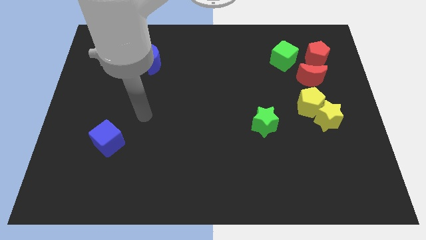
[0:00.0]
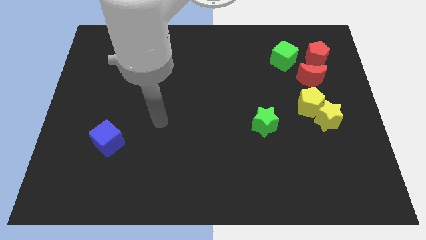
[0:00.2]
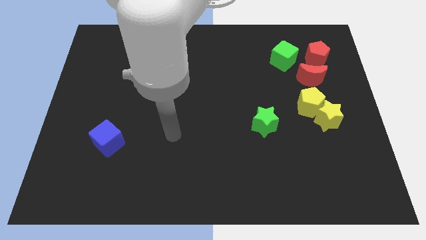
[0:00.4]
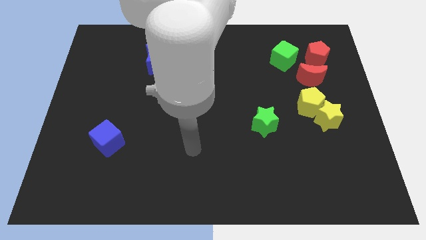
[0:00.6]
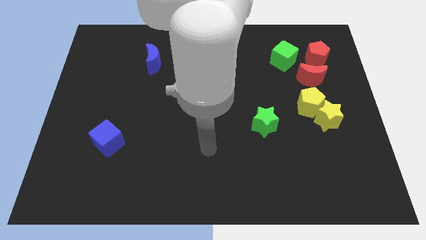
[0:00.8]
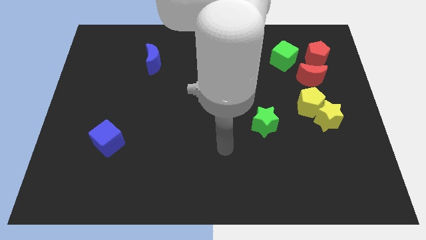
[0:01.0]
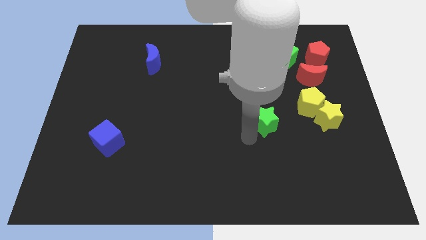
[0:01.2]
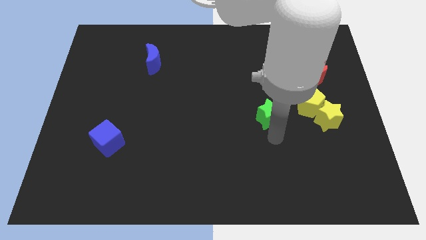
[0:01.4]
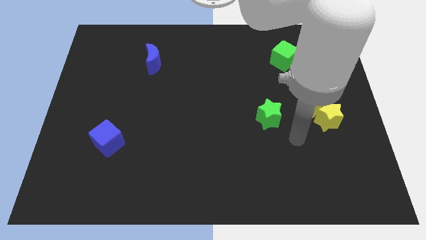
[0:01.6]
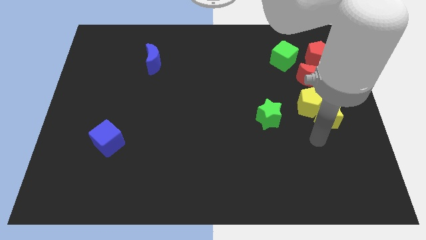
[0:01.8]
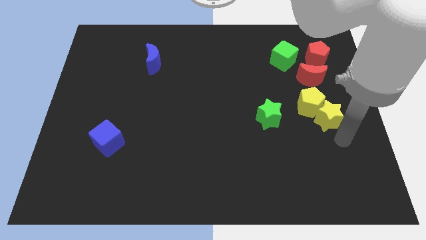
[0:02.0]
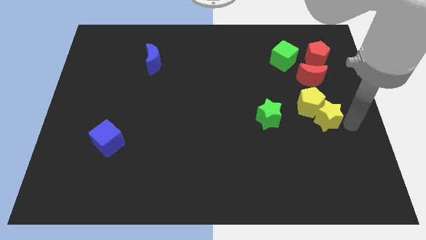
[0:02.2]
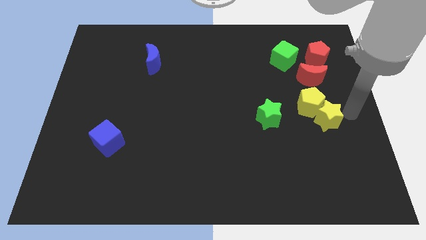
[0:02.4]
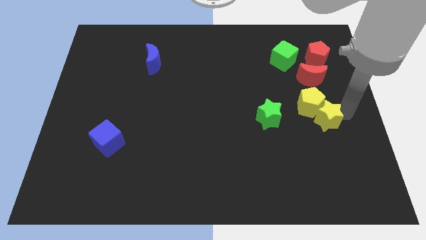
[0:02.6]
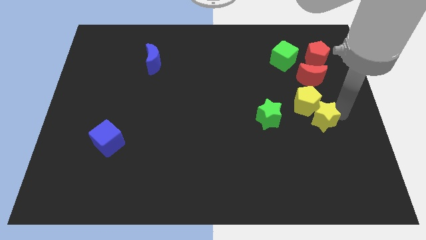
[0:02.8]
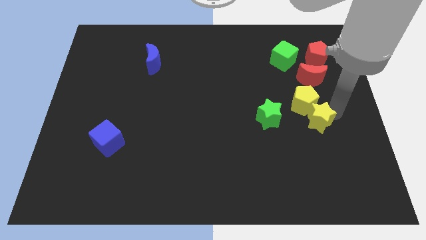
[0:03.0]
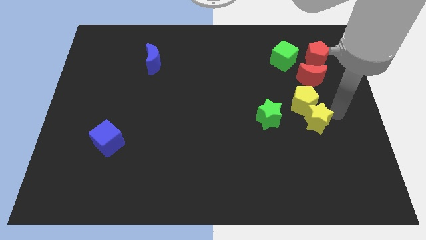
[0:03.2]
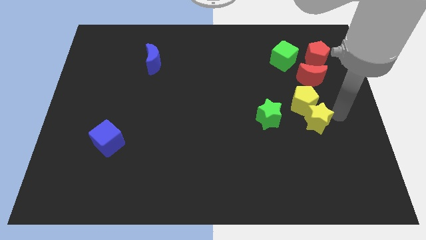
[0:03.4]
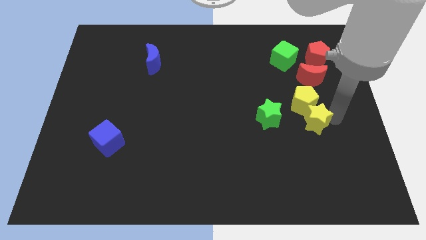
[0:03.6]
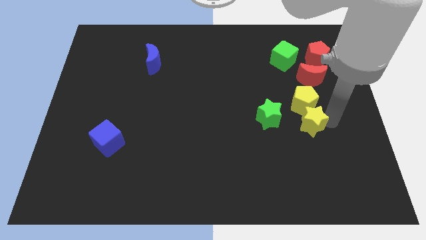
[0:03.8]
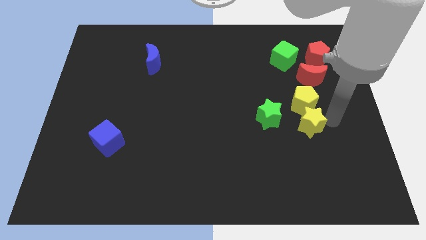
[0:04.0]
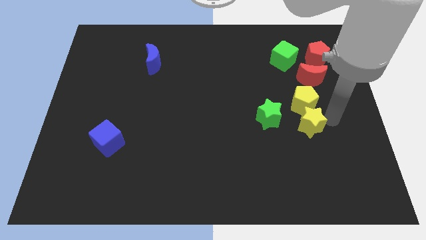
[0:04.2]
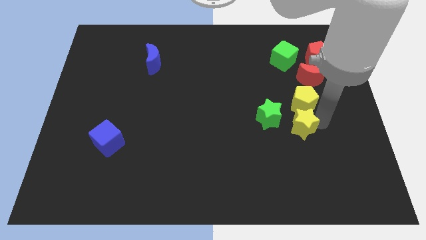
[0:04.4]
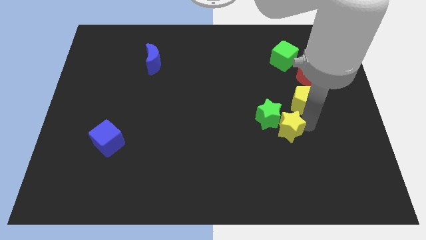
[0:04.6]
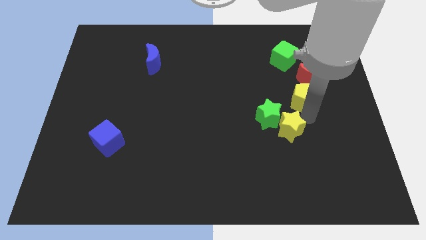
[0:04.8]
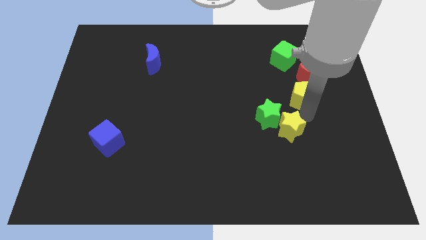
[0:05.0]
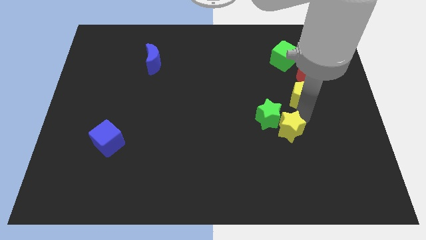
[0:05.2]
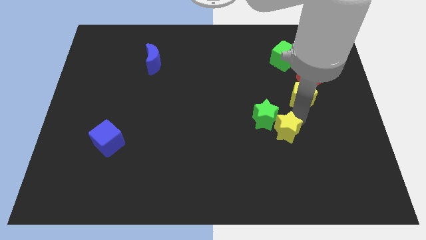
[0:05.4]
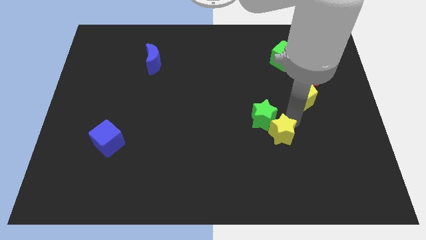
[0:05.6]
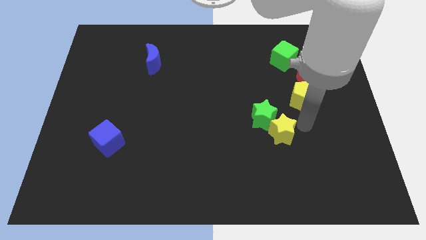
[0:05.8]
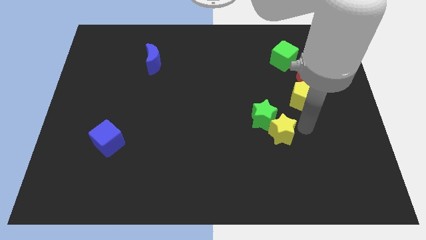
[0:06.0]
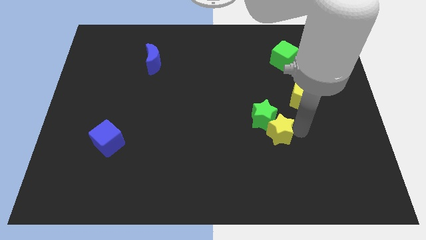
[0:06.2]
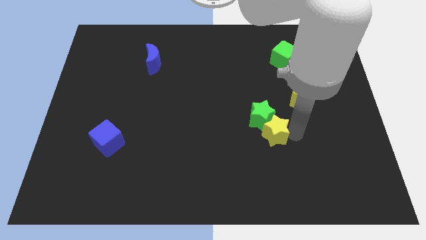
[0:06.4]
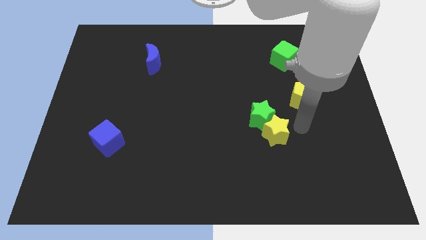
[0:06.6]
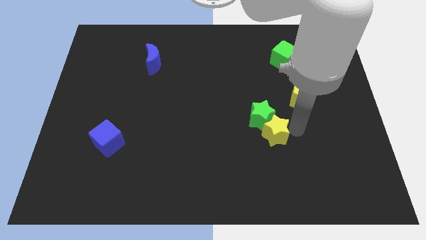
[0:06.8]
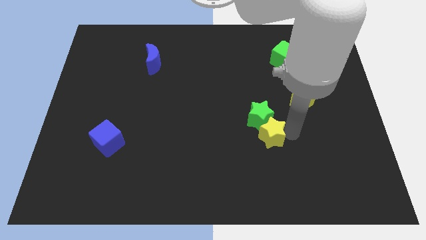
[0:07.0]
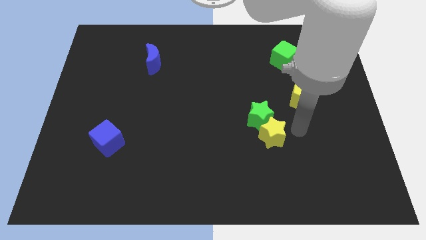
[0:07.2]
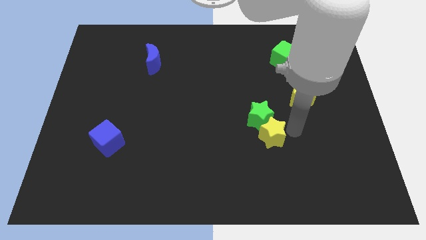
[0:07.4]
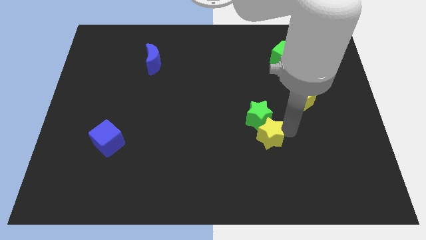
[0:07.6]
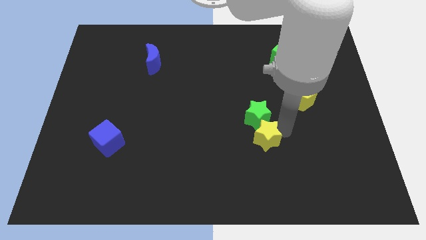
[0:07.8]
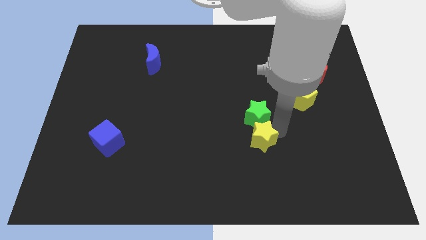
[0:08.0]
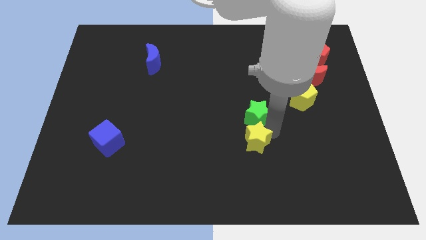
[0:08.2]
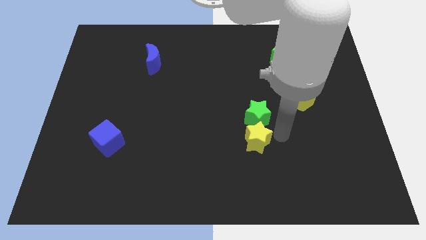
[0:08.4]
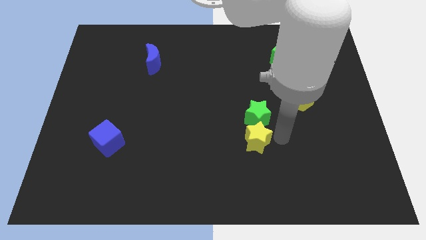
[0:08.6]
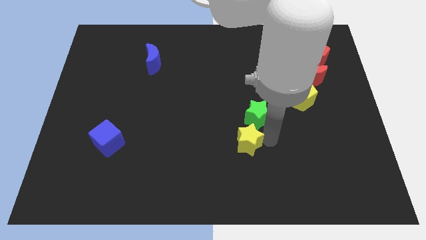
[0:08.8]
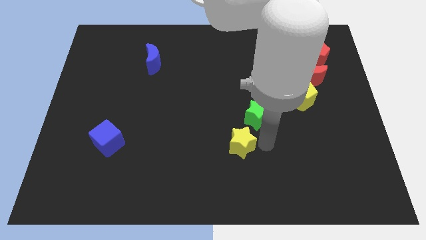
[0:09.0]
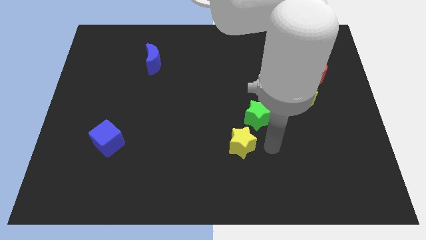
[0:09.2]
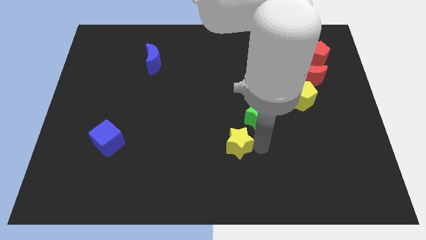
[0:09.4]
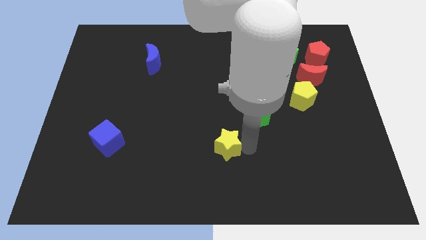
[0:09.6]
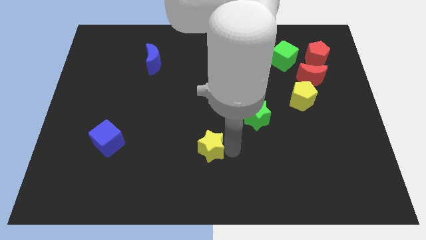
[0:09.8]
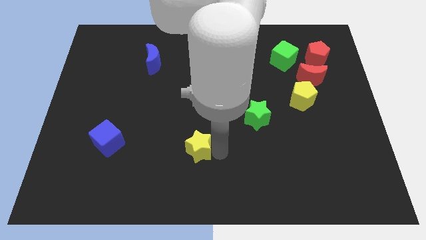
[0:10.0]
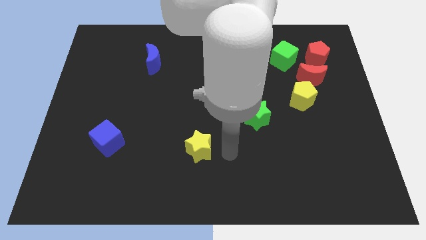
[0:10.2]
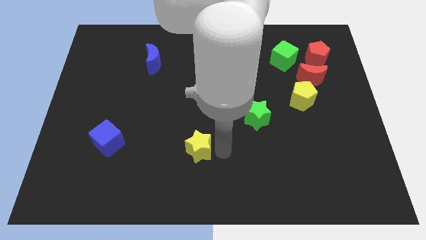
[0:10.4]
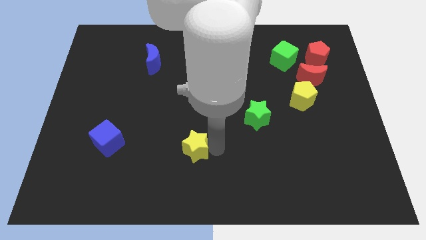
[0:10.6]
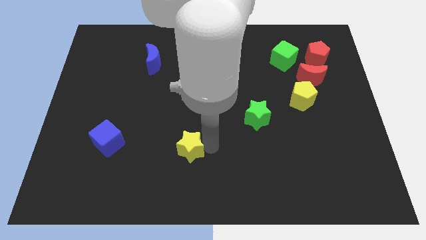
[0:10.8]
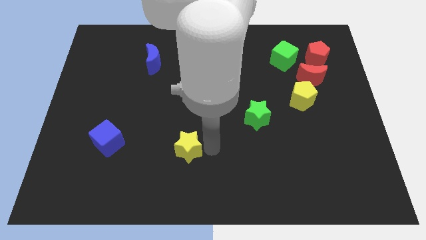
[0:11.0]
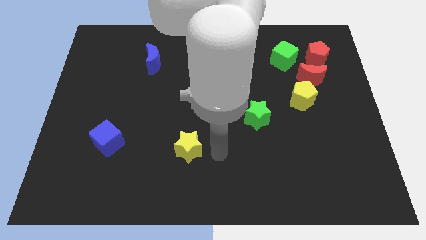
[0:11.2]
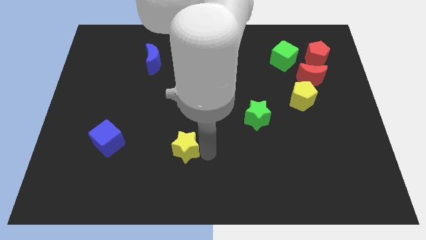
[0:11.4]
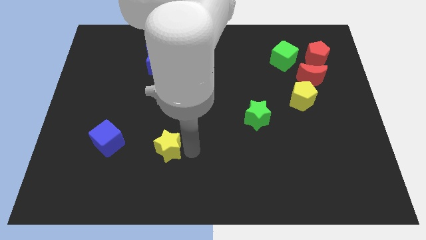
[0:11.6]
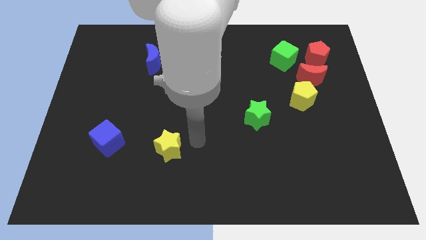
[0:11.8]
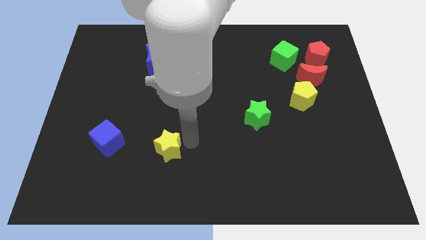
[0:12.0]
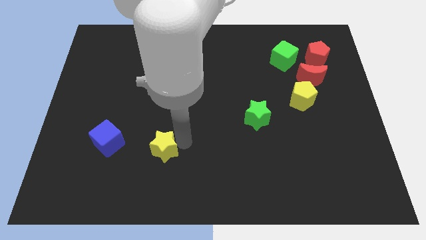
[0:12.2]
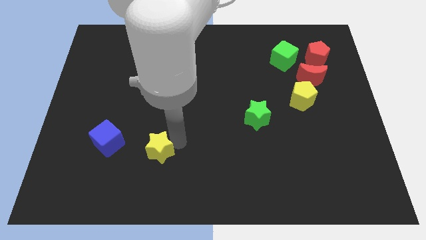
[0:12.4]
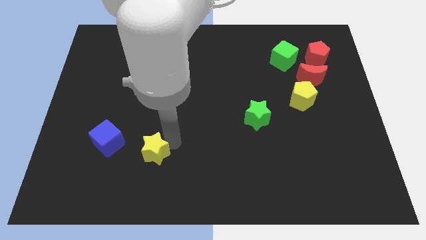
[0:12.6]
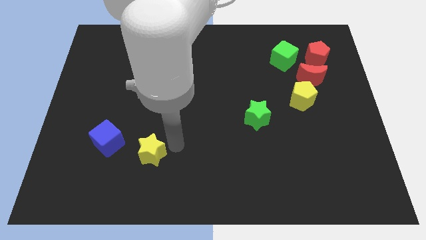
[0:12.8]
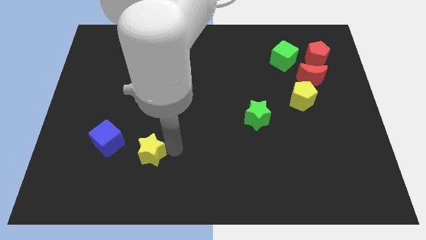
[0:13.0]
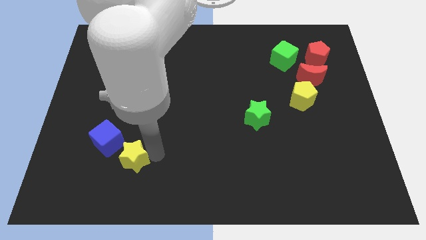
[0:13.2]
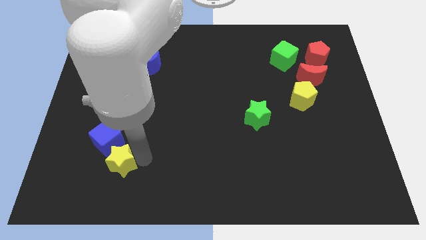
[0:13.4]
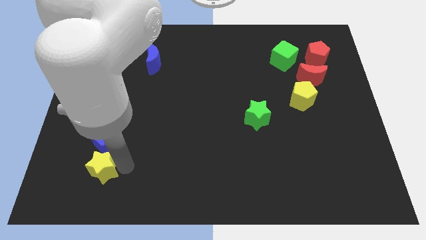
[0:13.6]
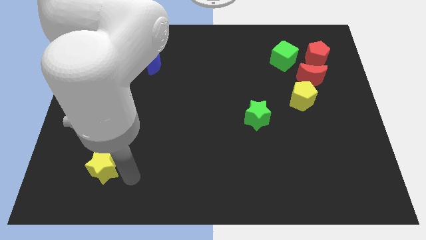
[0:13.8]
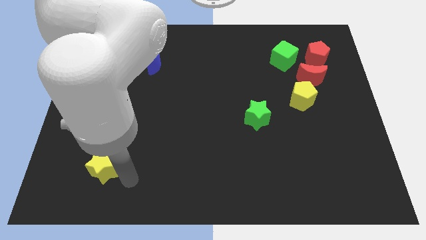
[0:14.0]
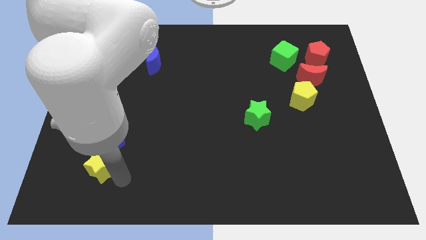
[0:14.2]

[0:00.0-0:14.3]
move the yellow star diagonally down and to the left of the blue cube
